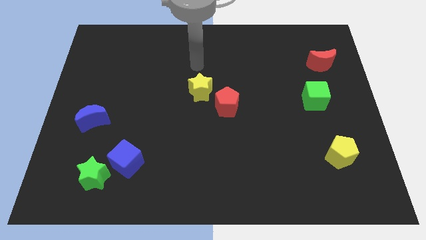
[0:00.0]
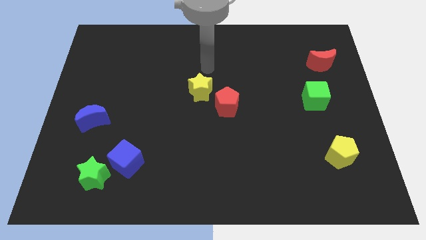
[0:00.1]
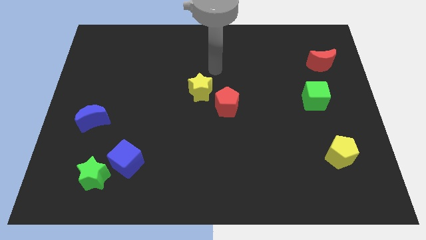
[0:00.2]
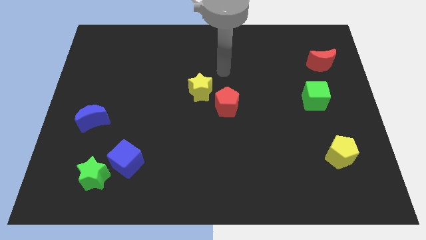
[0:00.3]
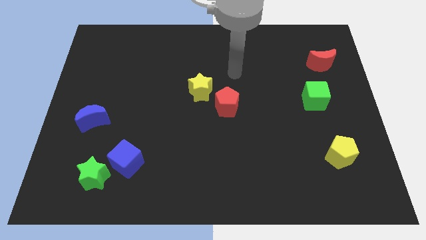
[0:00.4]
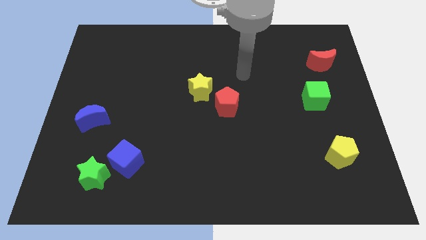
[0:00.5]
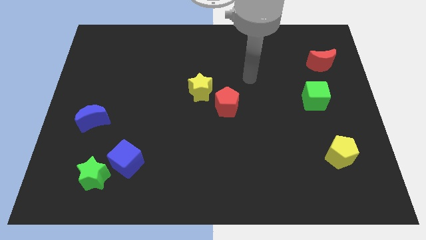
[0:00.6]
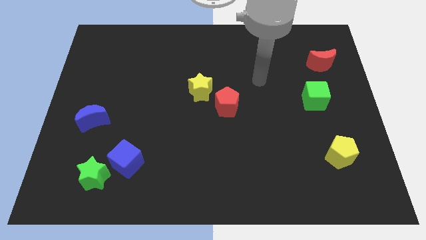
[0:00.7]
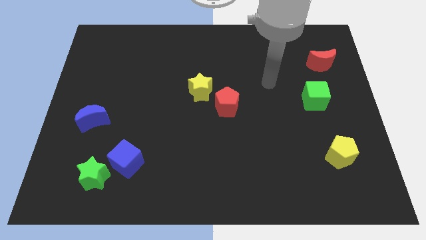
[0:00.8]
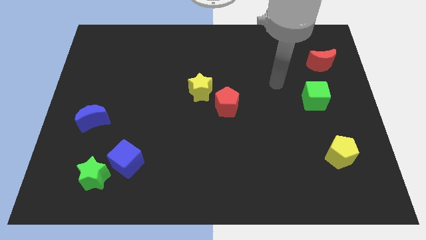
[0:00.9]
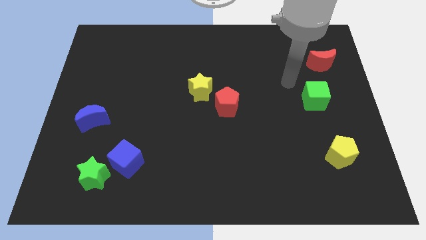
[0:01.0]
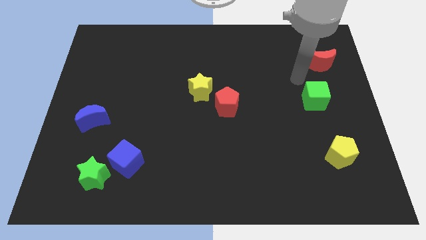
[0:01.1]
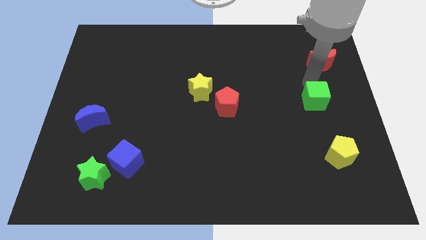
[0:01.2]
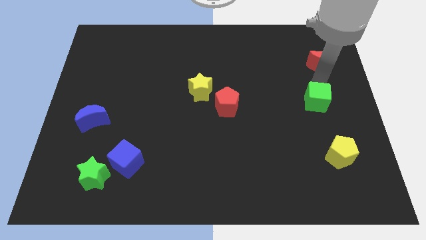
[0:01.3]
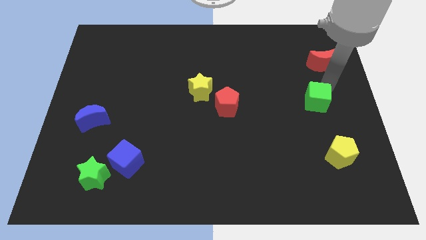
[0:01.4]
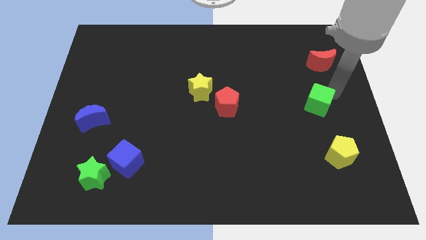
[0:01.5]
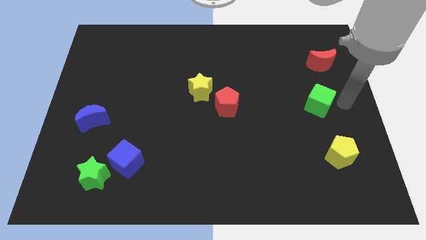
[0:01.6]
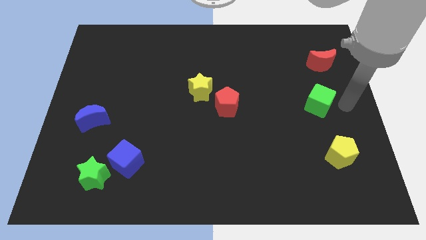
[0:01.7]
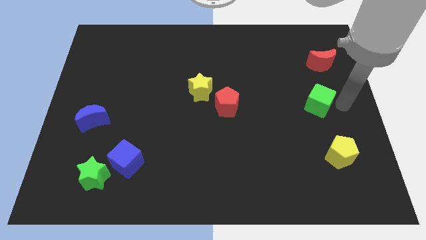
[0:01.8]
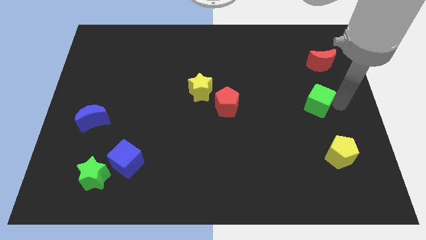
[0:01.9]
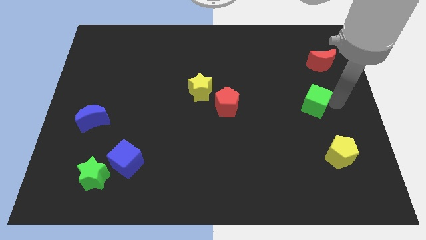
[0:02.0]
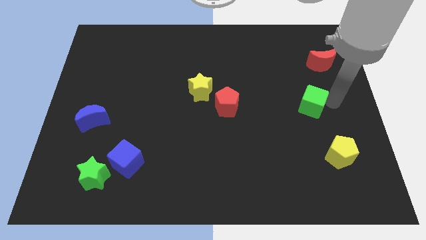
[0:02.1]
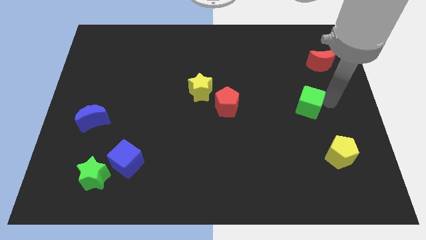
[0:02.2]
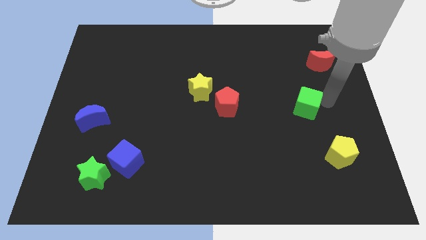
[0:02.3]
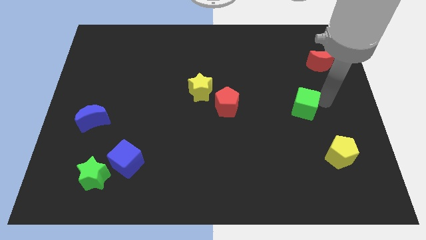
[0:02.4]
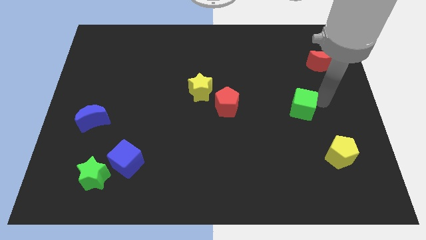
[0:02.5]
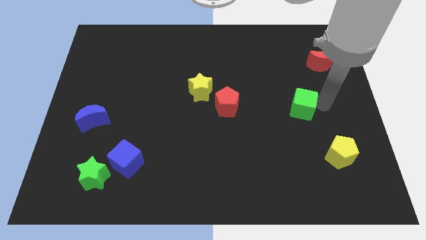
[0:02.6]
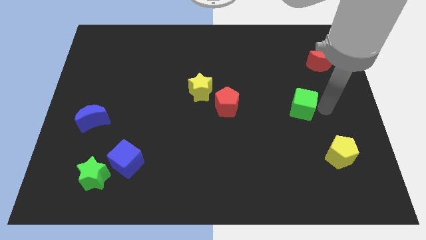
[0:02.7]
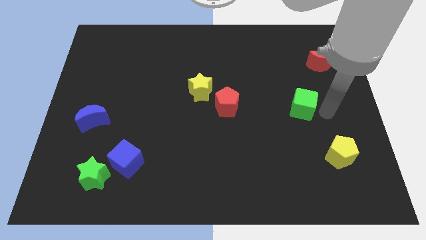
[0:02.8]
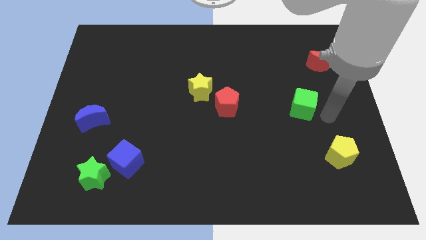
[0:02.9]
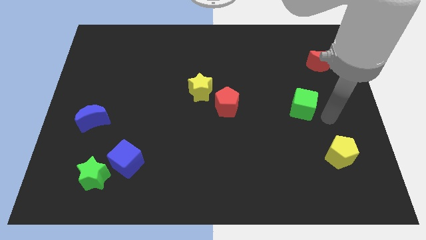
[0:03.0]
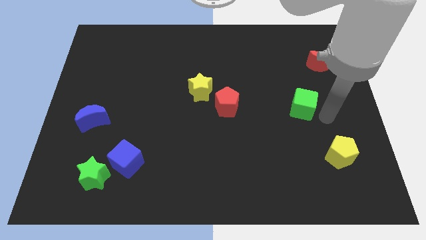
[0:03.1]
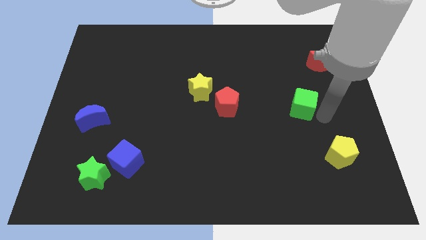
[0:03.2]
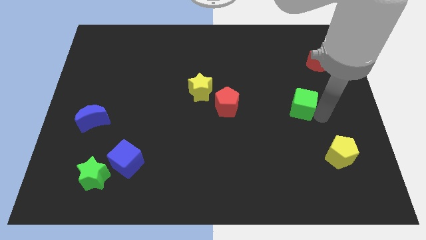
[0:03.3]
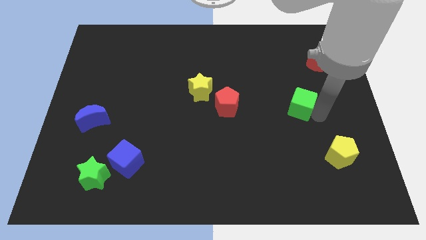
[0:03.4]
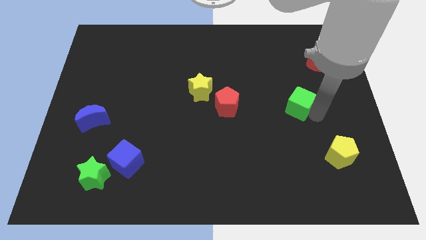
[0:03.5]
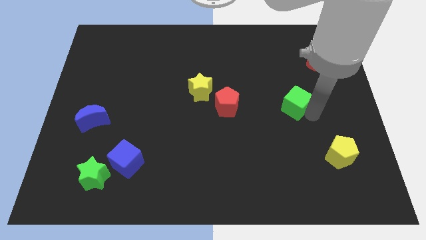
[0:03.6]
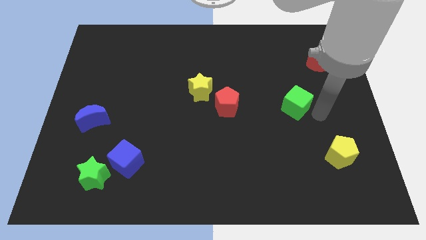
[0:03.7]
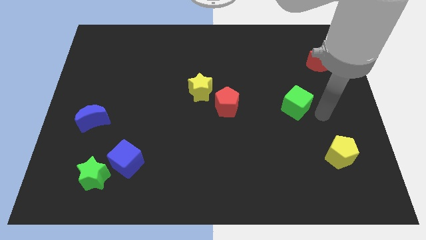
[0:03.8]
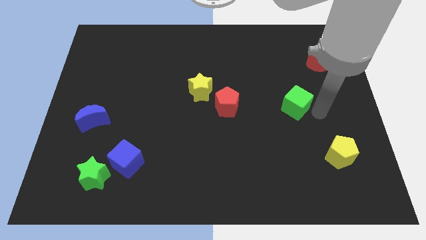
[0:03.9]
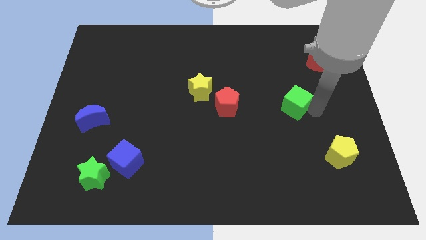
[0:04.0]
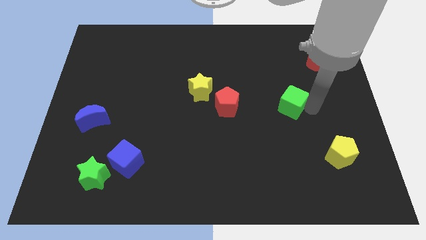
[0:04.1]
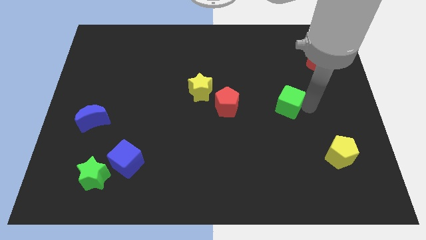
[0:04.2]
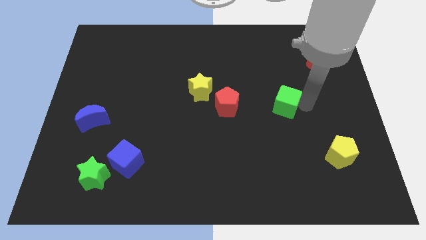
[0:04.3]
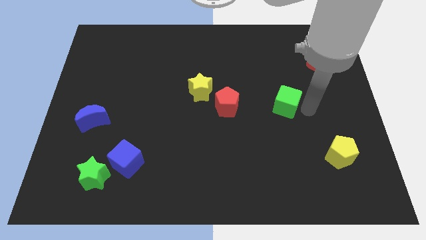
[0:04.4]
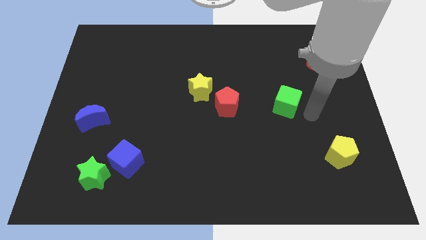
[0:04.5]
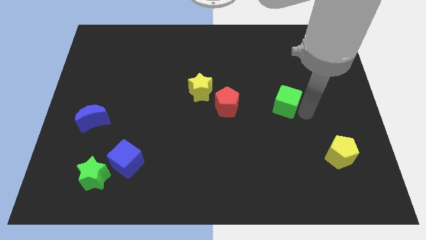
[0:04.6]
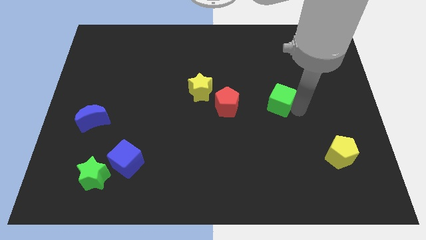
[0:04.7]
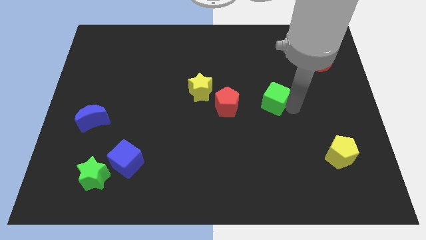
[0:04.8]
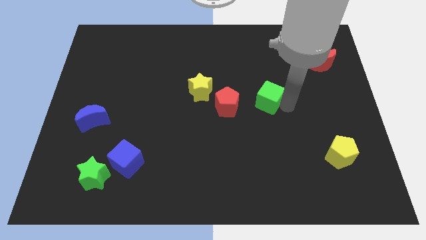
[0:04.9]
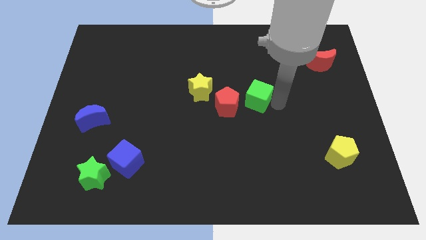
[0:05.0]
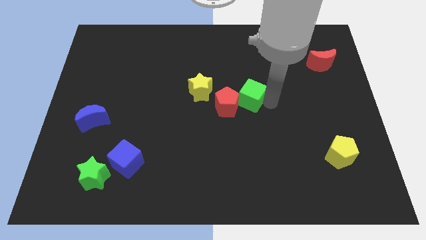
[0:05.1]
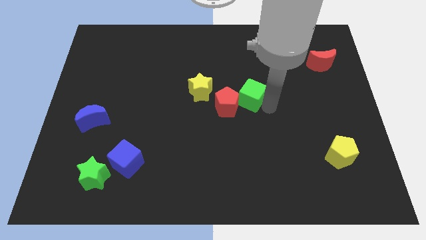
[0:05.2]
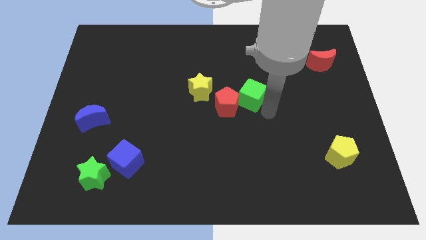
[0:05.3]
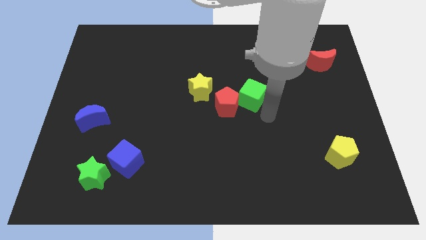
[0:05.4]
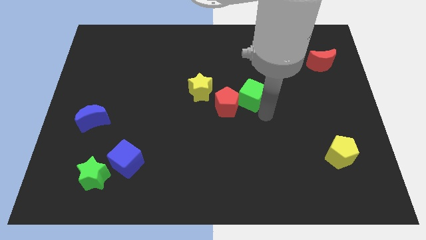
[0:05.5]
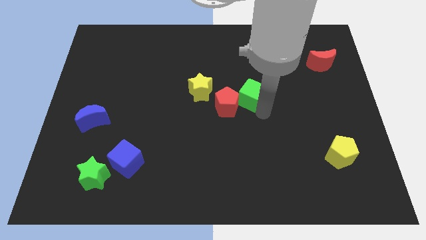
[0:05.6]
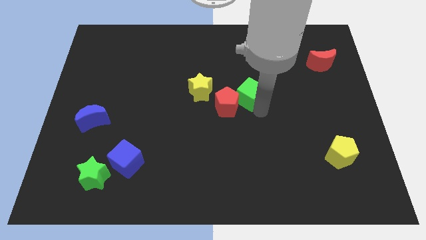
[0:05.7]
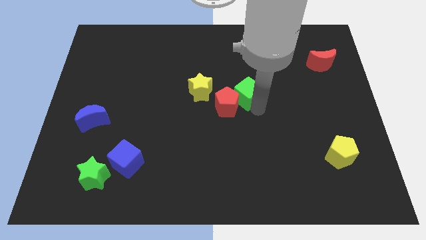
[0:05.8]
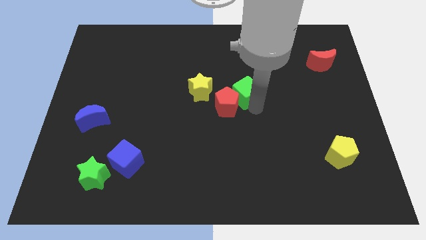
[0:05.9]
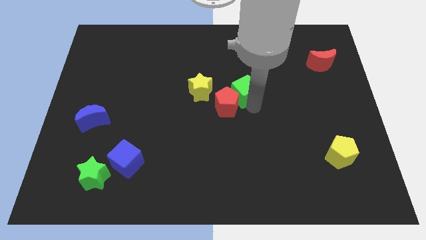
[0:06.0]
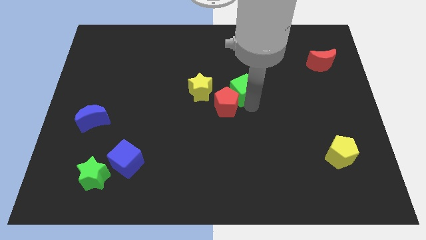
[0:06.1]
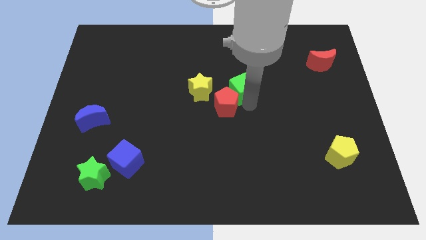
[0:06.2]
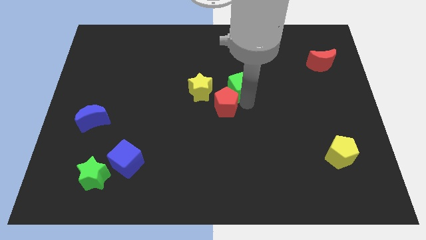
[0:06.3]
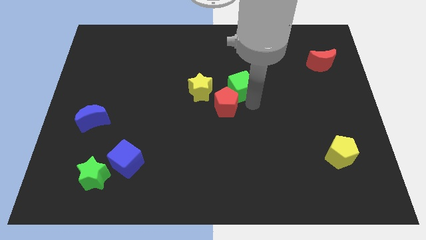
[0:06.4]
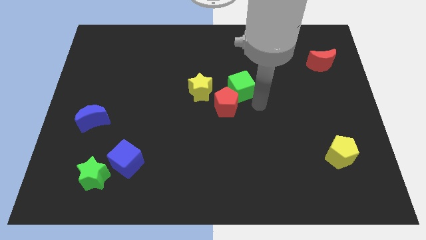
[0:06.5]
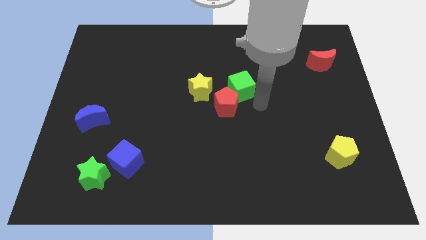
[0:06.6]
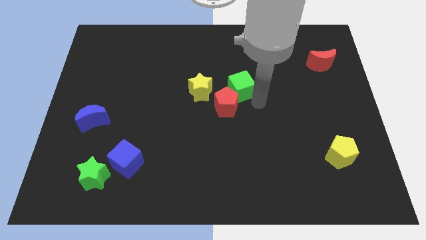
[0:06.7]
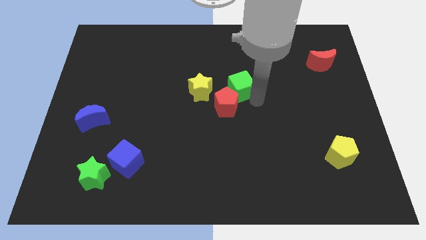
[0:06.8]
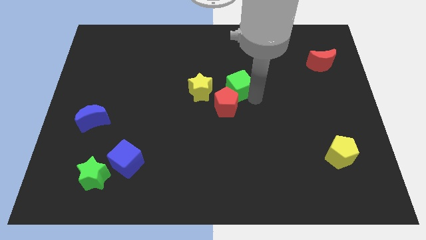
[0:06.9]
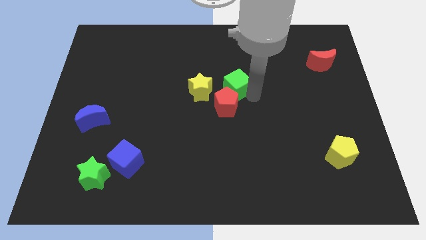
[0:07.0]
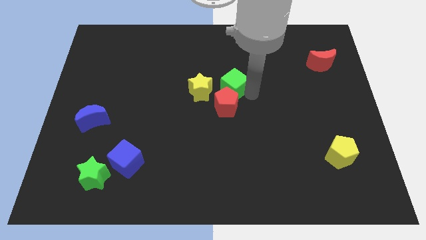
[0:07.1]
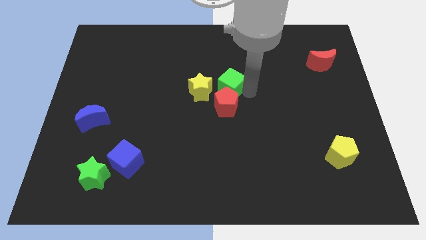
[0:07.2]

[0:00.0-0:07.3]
push the green cube to the top right side of the yellow star
